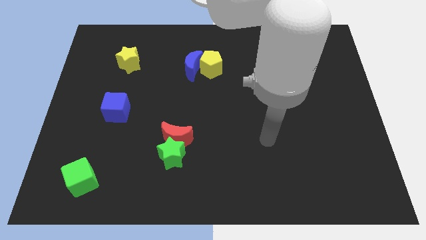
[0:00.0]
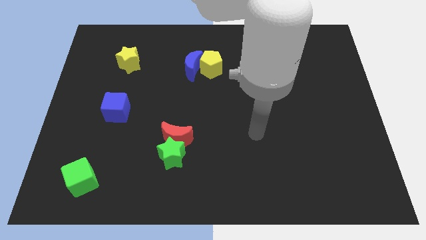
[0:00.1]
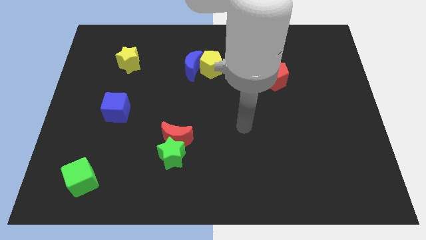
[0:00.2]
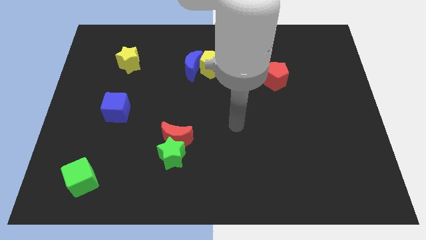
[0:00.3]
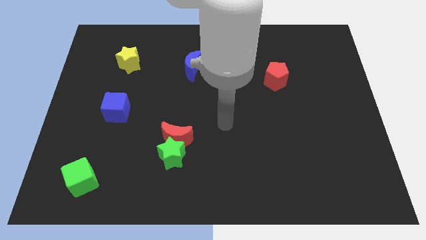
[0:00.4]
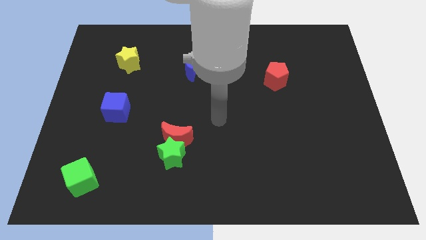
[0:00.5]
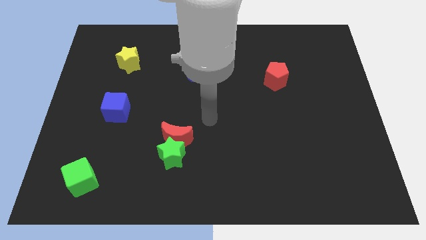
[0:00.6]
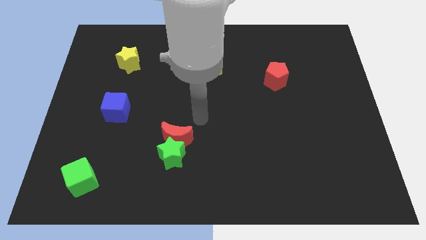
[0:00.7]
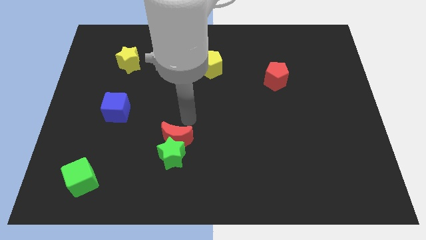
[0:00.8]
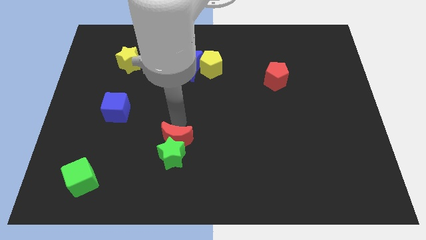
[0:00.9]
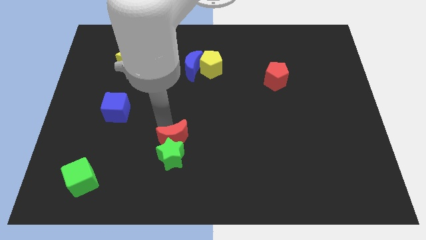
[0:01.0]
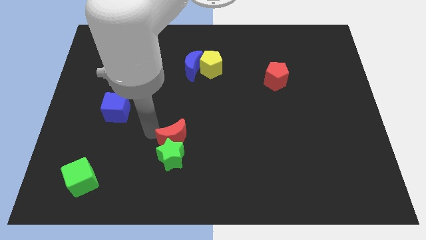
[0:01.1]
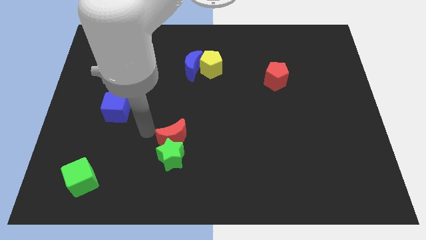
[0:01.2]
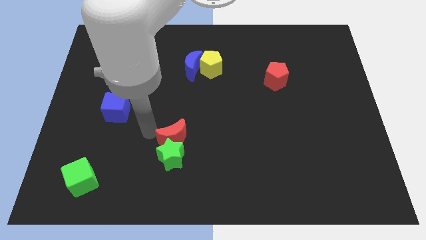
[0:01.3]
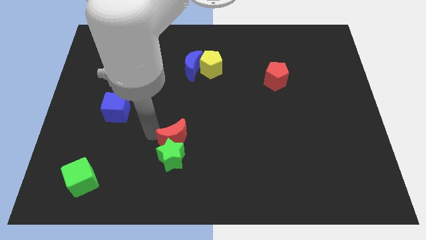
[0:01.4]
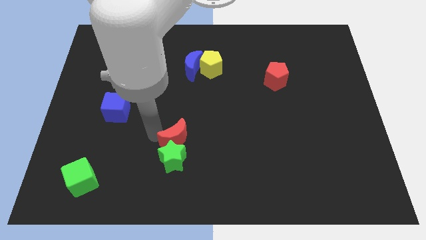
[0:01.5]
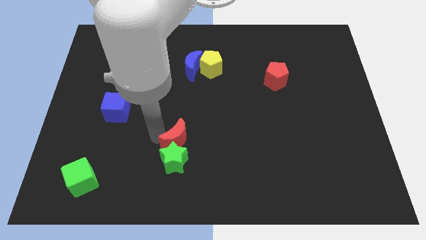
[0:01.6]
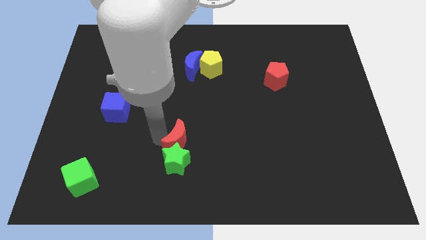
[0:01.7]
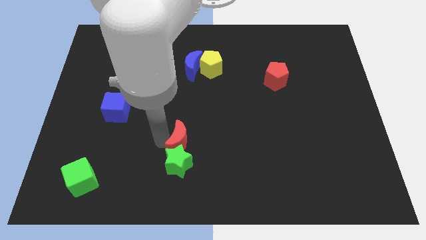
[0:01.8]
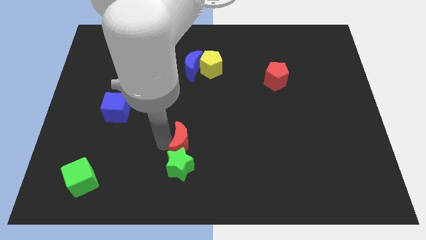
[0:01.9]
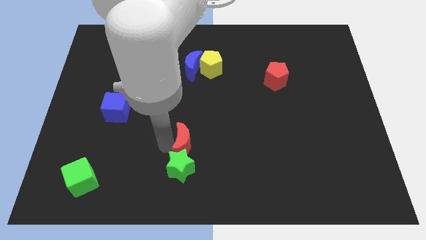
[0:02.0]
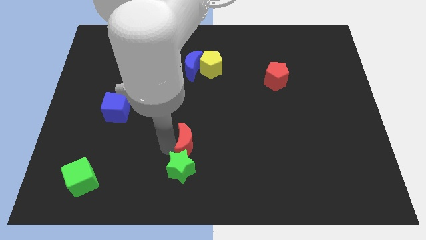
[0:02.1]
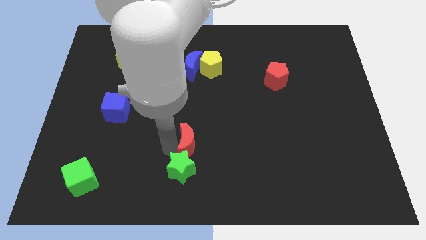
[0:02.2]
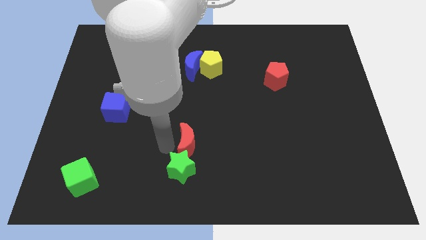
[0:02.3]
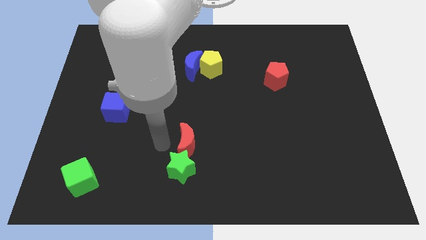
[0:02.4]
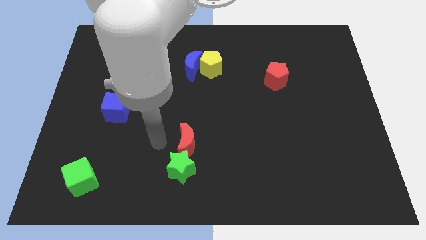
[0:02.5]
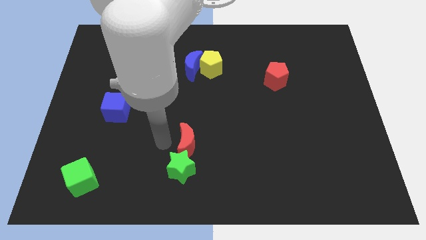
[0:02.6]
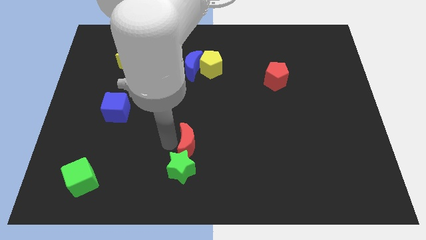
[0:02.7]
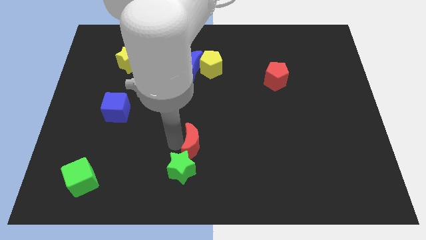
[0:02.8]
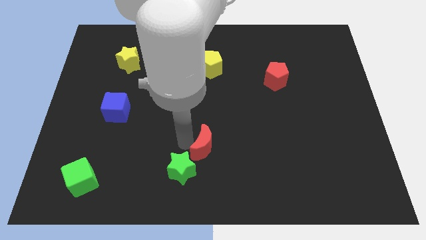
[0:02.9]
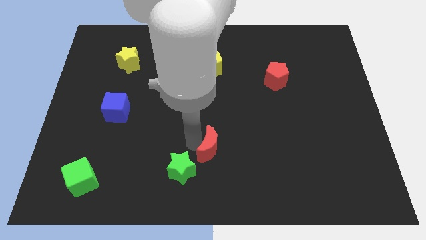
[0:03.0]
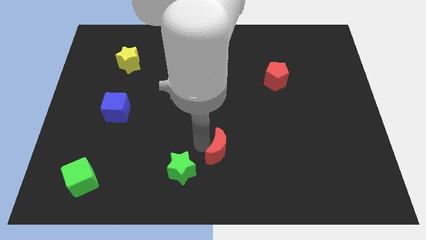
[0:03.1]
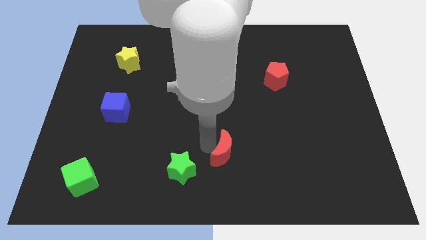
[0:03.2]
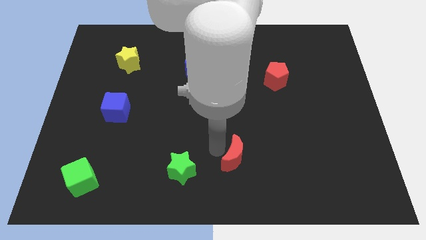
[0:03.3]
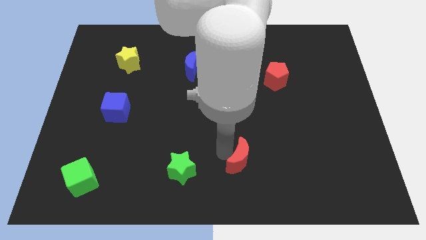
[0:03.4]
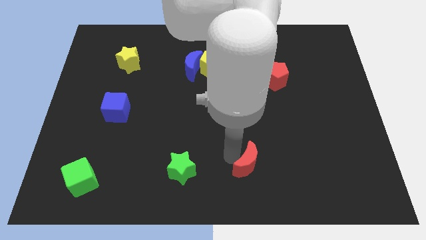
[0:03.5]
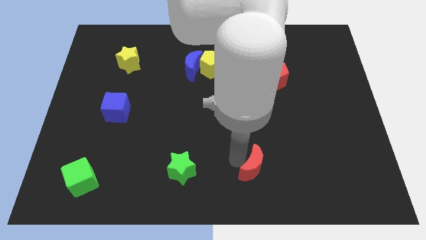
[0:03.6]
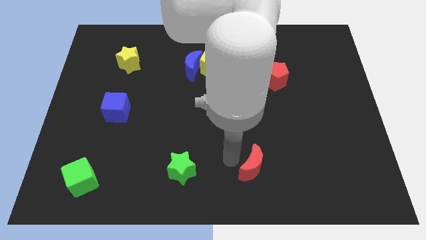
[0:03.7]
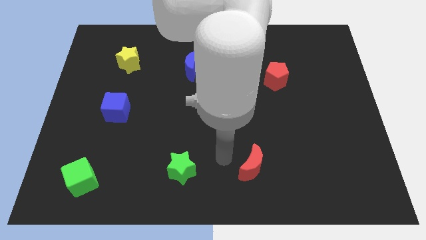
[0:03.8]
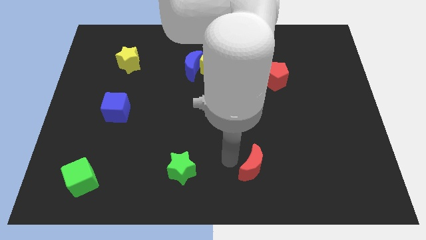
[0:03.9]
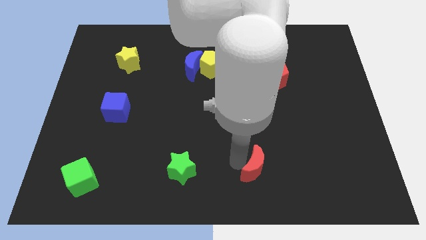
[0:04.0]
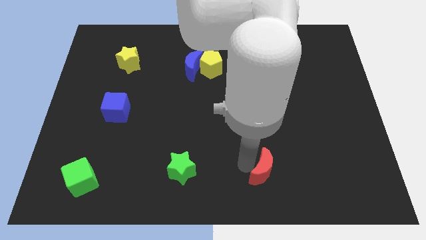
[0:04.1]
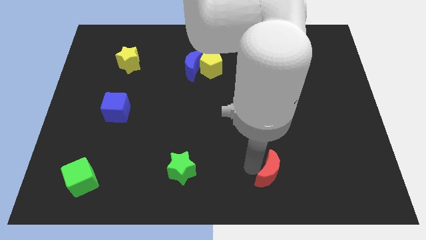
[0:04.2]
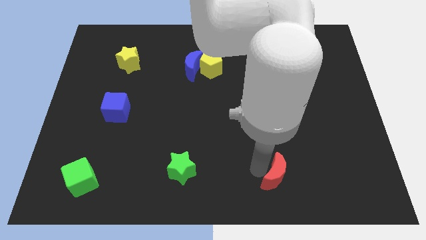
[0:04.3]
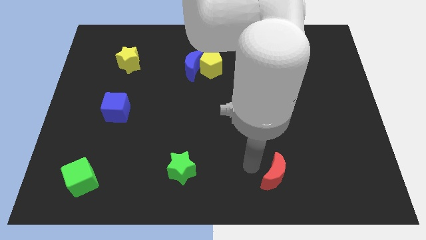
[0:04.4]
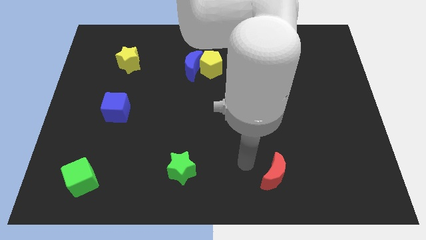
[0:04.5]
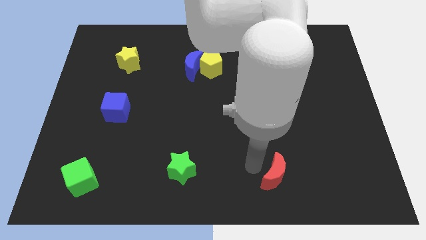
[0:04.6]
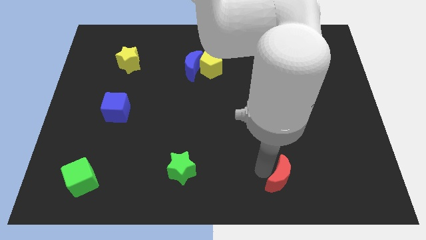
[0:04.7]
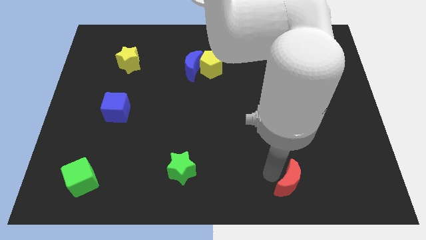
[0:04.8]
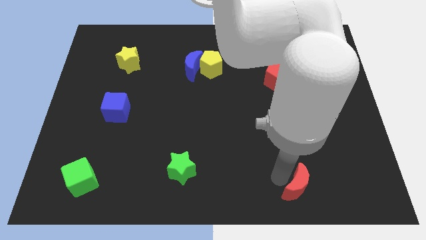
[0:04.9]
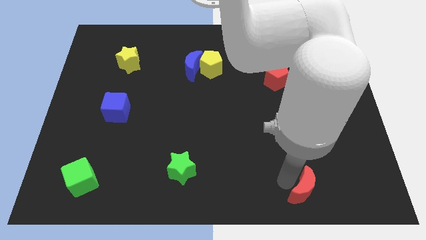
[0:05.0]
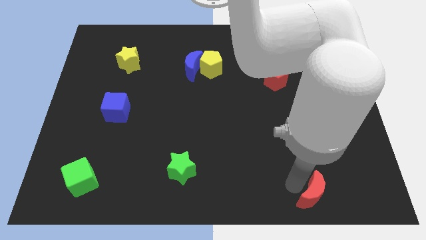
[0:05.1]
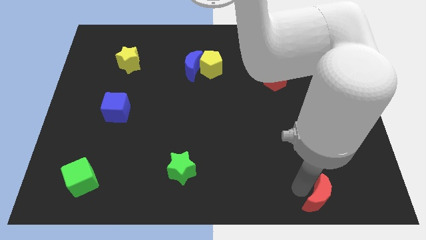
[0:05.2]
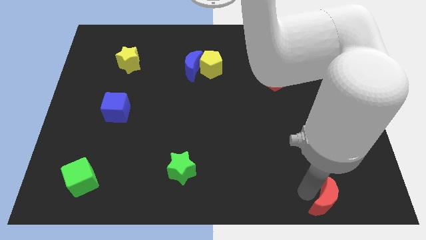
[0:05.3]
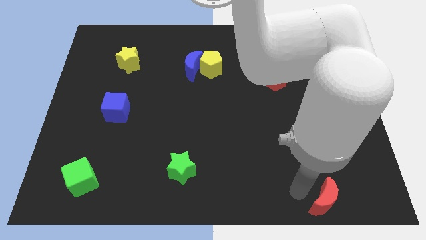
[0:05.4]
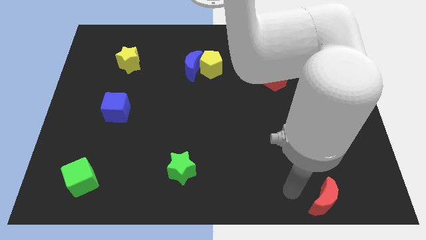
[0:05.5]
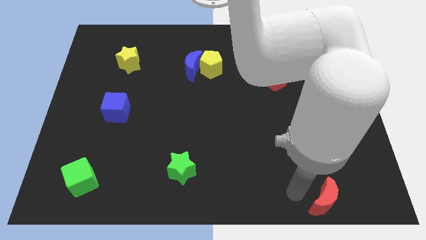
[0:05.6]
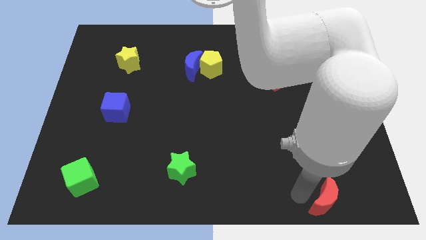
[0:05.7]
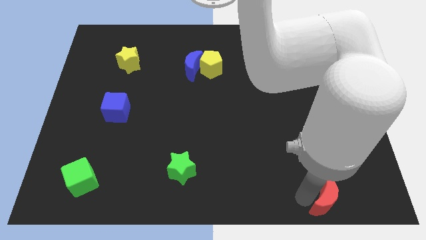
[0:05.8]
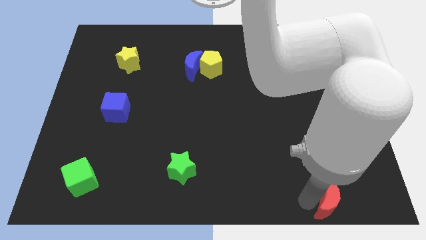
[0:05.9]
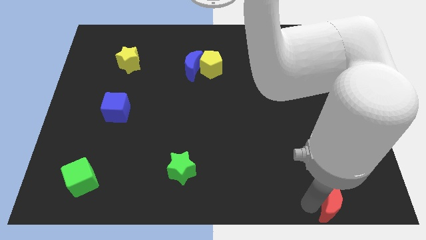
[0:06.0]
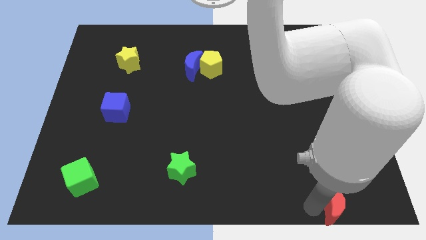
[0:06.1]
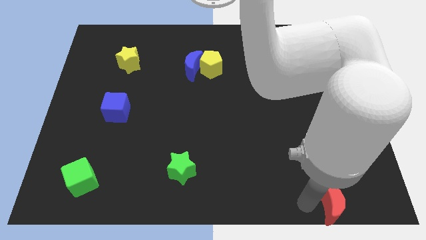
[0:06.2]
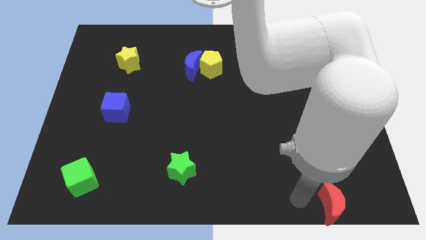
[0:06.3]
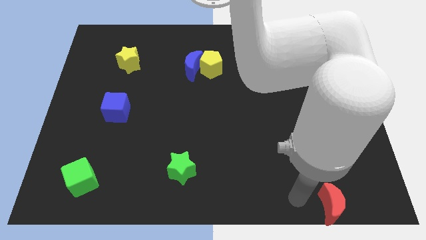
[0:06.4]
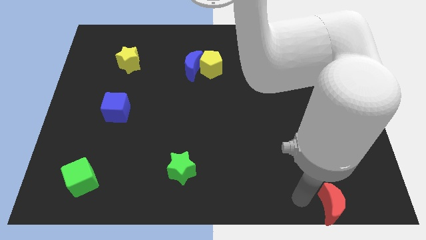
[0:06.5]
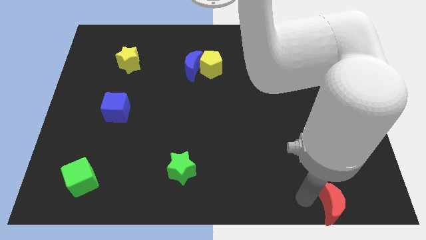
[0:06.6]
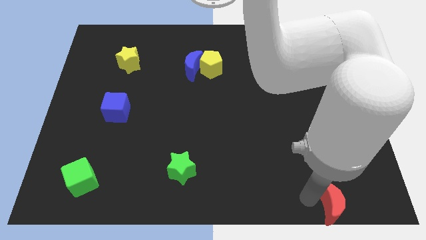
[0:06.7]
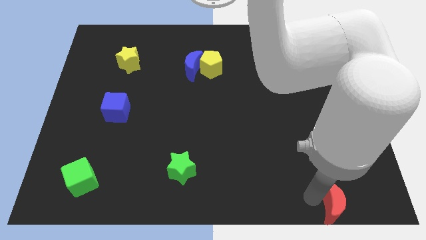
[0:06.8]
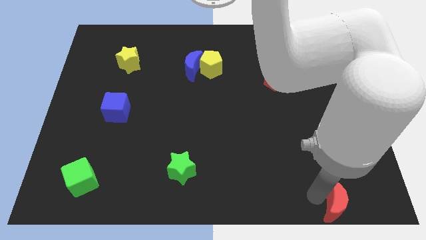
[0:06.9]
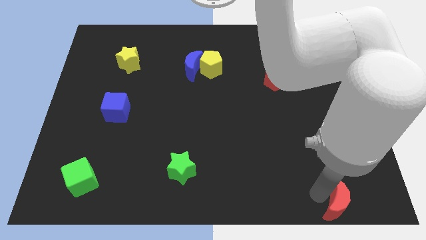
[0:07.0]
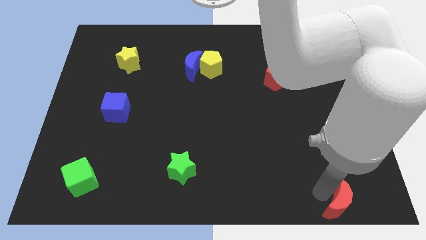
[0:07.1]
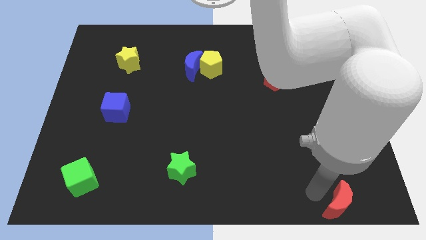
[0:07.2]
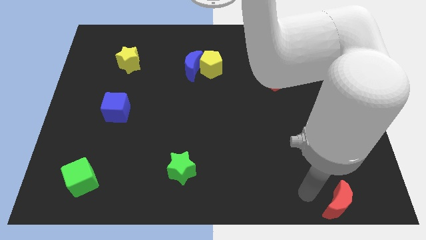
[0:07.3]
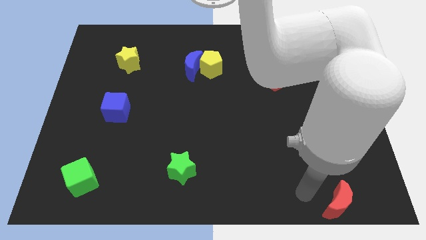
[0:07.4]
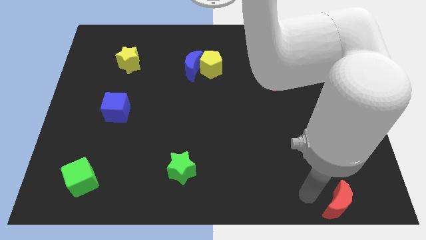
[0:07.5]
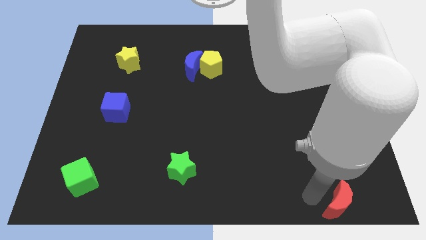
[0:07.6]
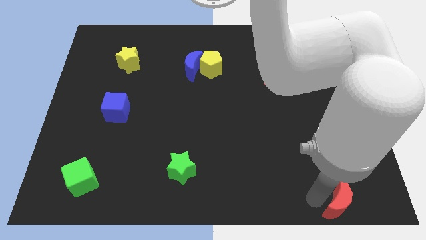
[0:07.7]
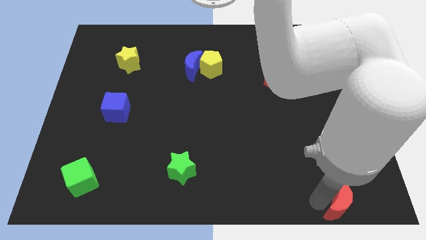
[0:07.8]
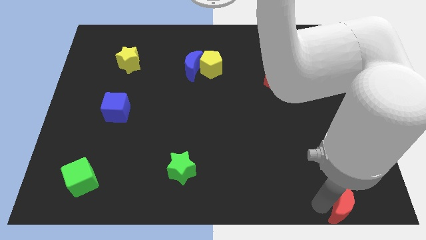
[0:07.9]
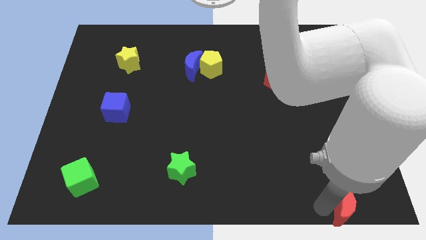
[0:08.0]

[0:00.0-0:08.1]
put the red moon to the bottom right corner
